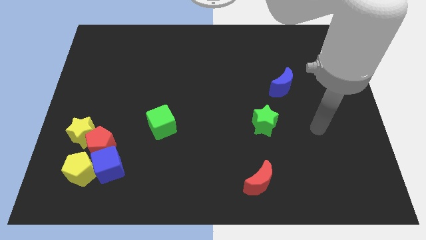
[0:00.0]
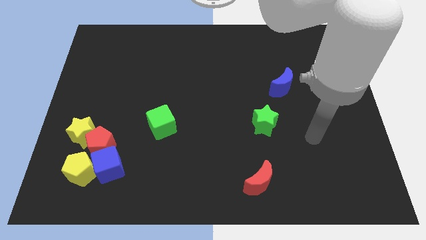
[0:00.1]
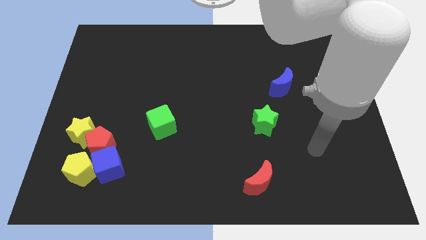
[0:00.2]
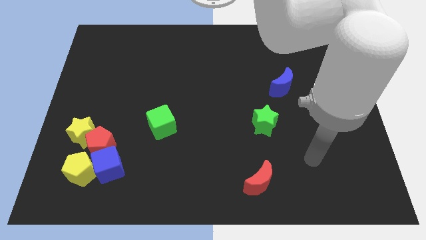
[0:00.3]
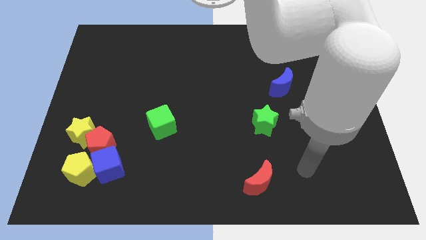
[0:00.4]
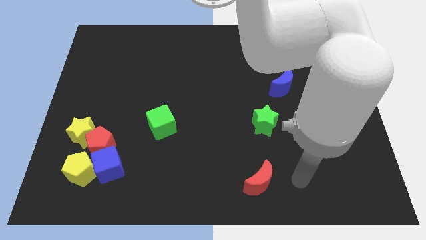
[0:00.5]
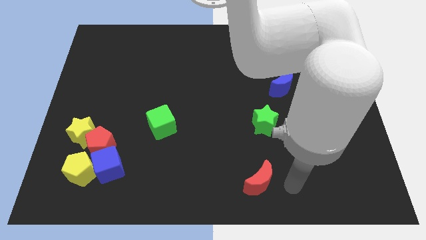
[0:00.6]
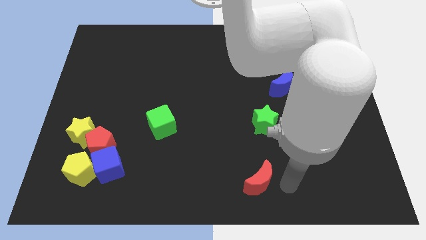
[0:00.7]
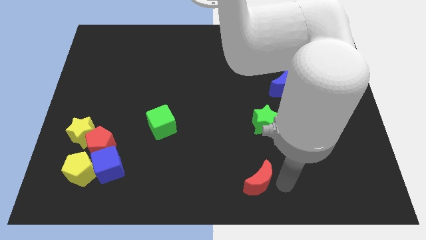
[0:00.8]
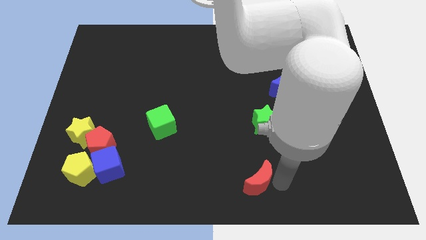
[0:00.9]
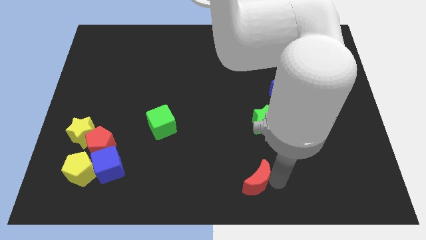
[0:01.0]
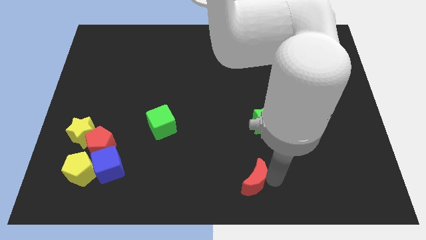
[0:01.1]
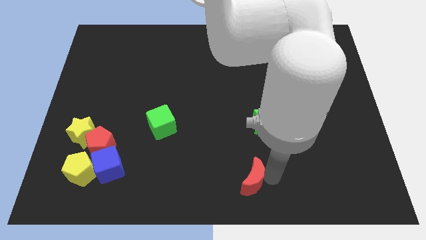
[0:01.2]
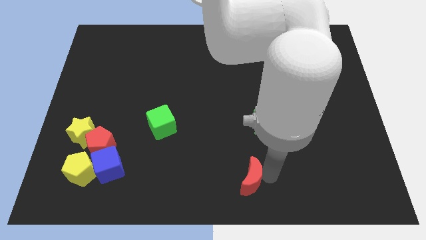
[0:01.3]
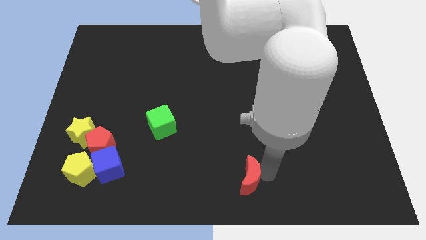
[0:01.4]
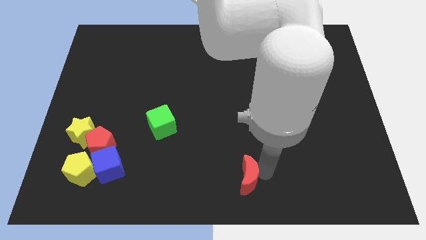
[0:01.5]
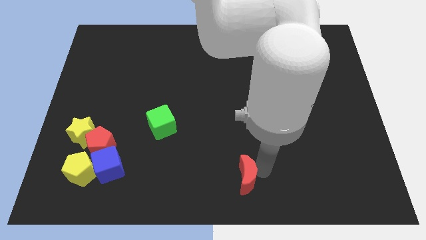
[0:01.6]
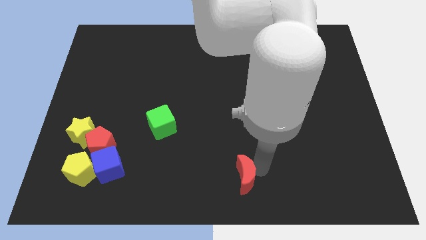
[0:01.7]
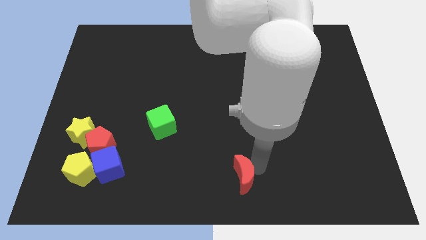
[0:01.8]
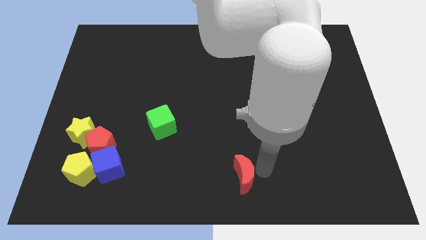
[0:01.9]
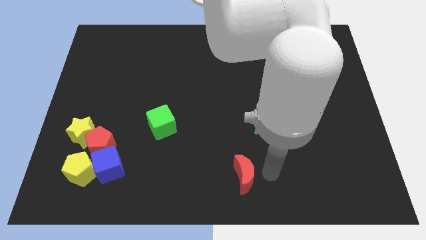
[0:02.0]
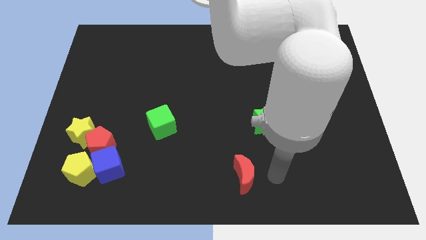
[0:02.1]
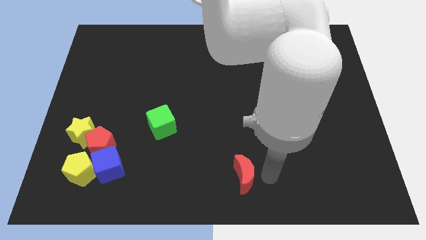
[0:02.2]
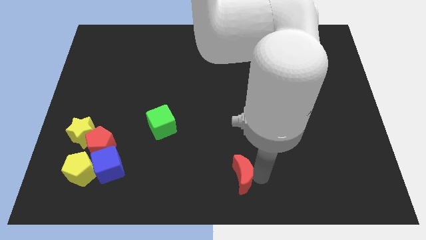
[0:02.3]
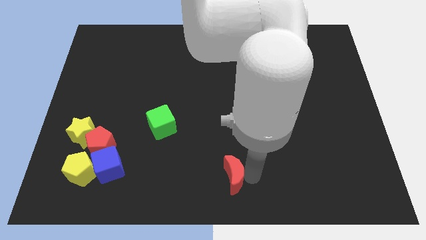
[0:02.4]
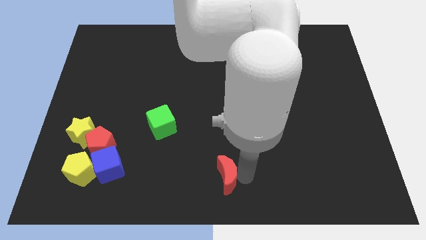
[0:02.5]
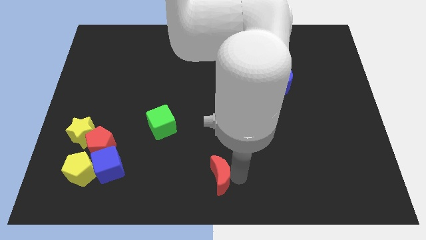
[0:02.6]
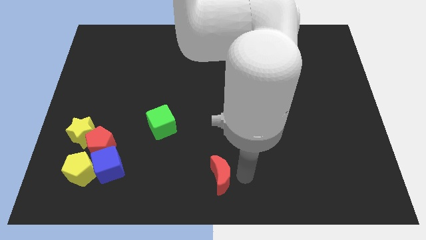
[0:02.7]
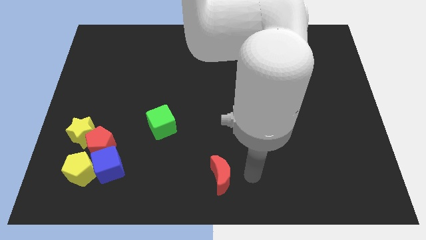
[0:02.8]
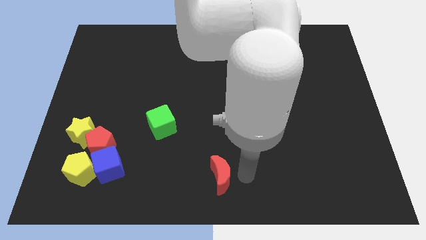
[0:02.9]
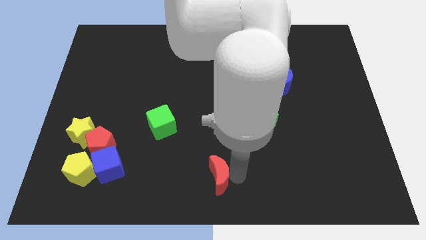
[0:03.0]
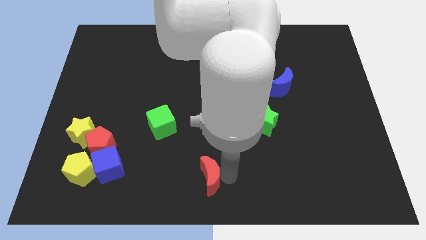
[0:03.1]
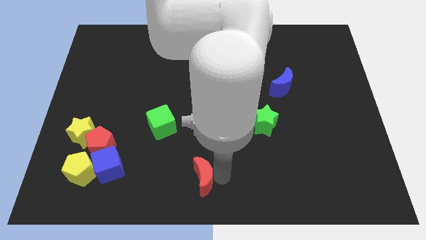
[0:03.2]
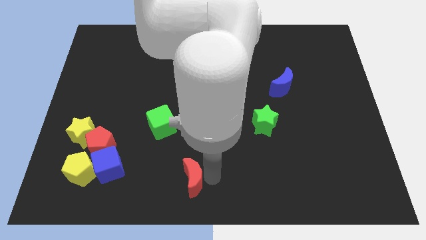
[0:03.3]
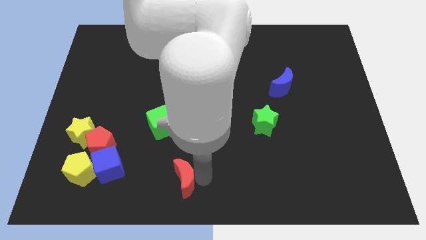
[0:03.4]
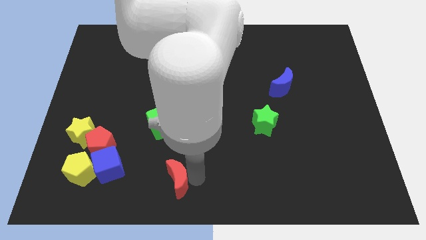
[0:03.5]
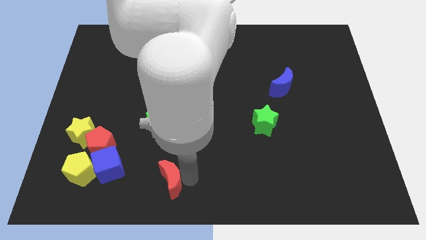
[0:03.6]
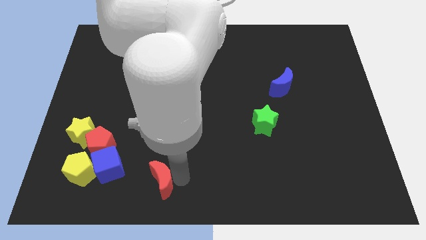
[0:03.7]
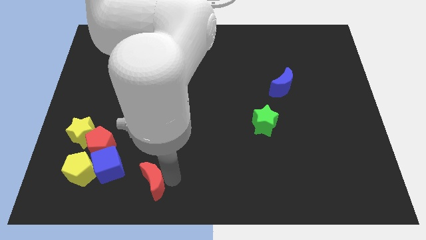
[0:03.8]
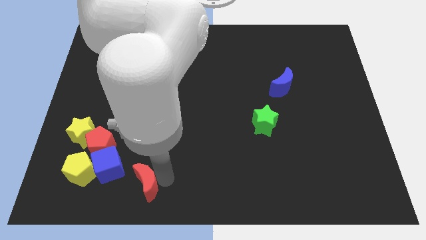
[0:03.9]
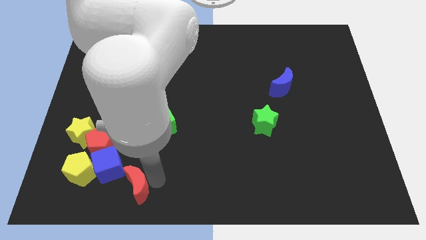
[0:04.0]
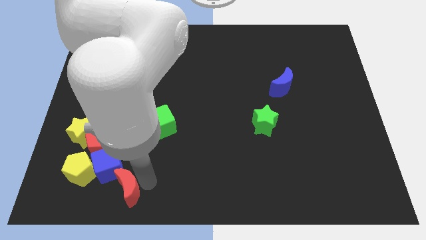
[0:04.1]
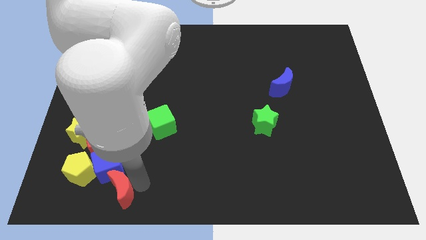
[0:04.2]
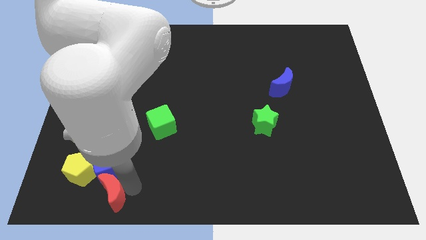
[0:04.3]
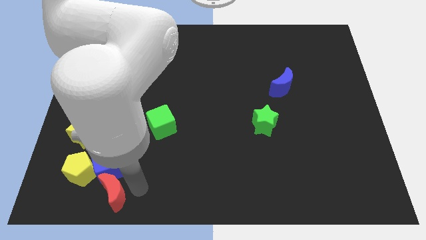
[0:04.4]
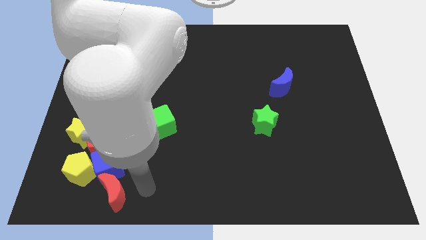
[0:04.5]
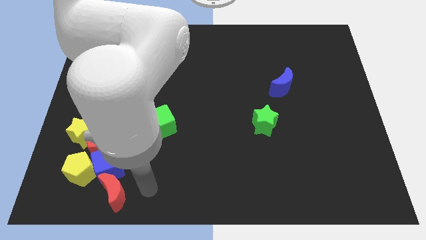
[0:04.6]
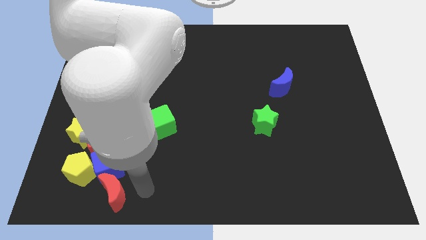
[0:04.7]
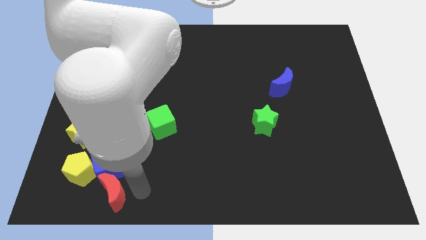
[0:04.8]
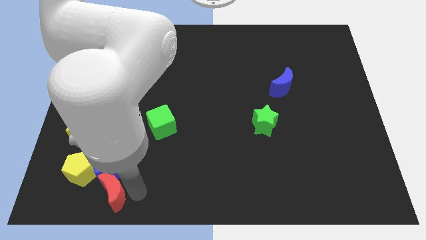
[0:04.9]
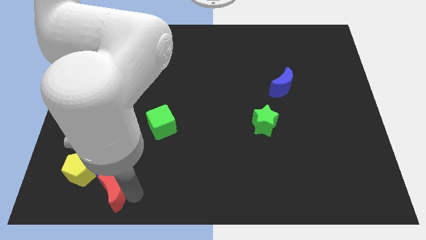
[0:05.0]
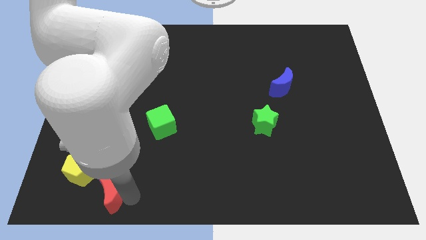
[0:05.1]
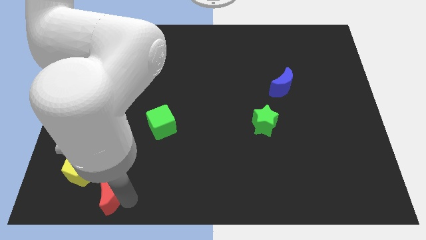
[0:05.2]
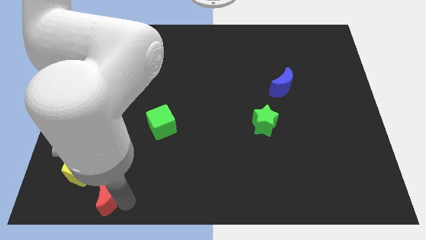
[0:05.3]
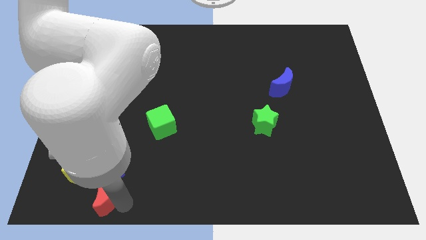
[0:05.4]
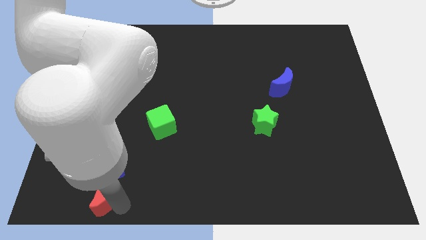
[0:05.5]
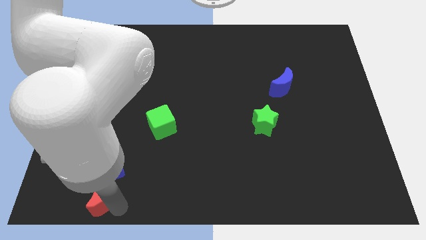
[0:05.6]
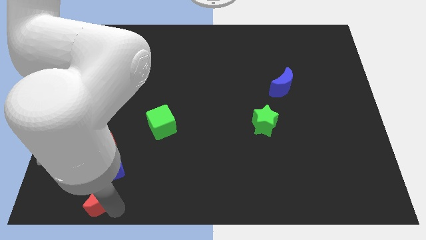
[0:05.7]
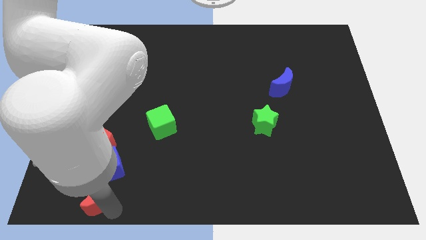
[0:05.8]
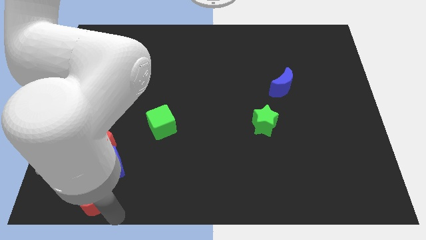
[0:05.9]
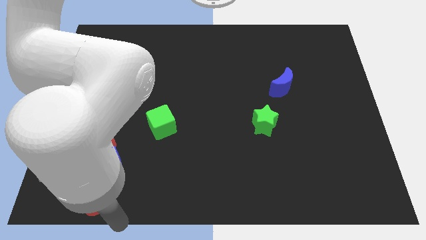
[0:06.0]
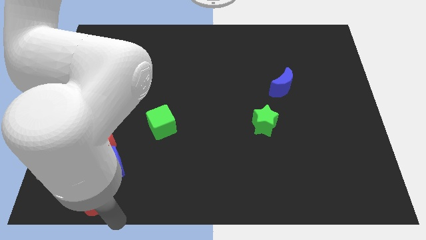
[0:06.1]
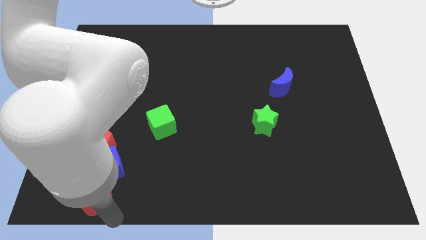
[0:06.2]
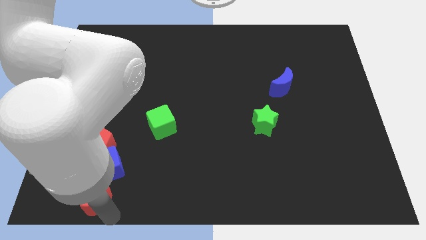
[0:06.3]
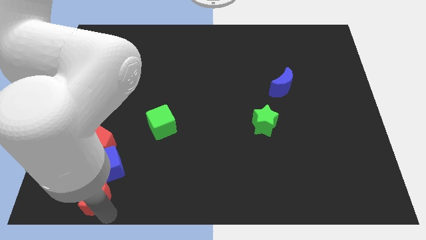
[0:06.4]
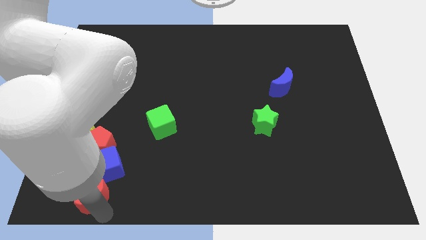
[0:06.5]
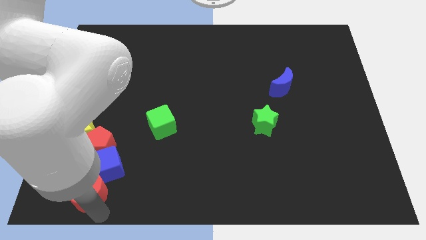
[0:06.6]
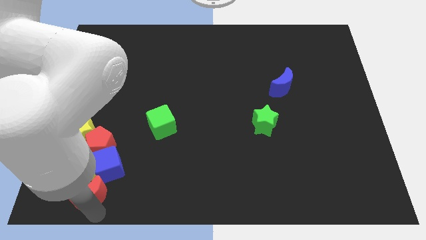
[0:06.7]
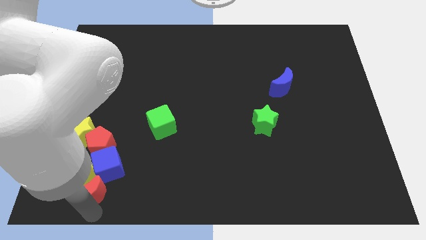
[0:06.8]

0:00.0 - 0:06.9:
push the red moon close to the yellow pentagon

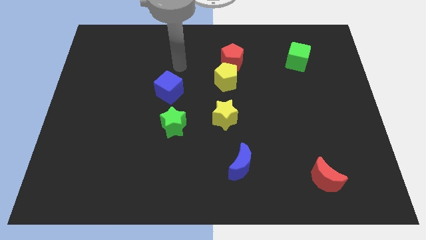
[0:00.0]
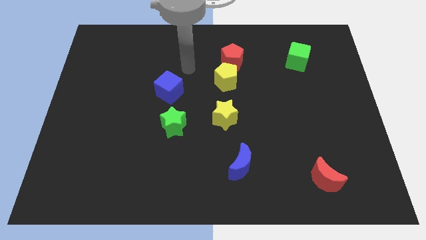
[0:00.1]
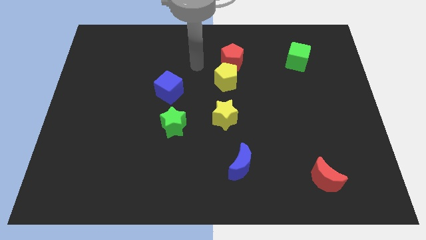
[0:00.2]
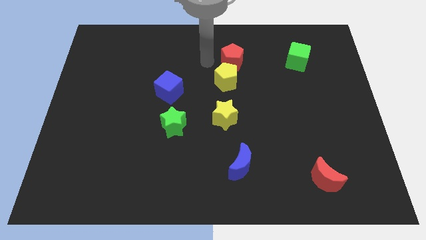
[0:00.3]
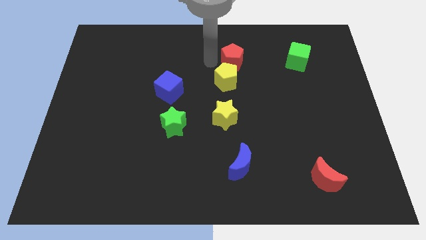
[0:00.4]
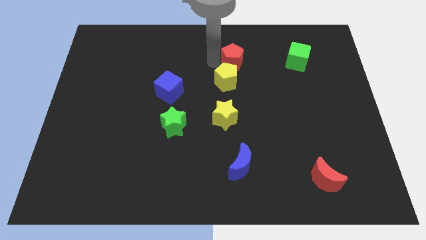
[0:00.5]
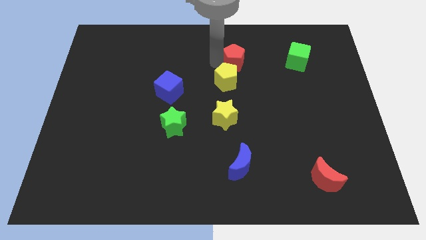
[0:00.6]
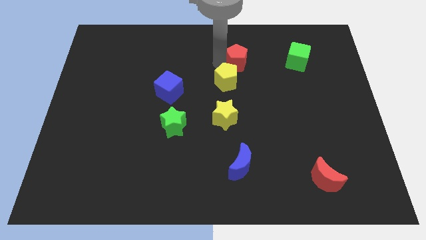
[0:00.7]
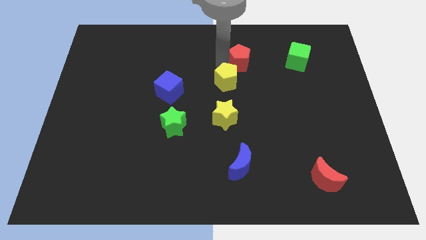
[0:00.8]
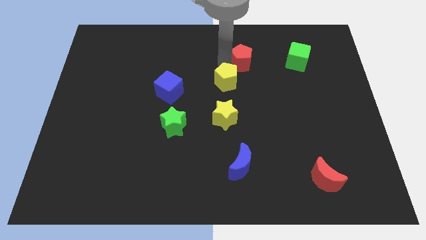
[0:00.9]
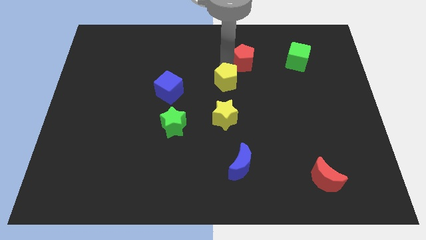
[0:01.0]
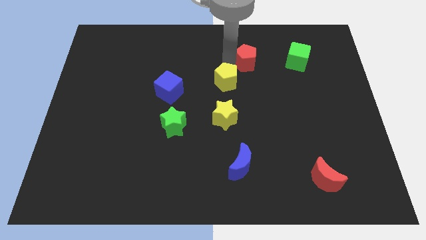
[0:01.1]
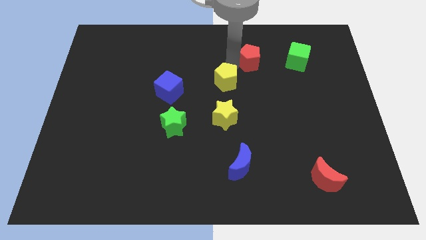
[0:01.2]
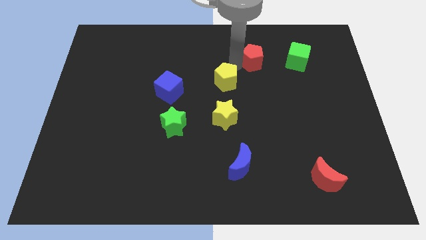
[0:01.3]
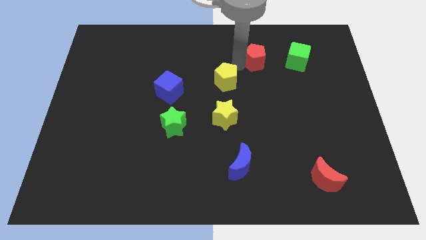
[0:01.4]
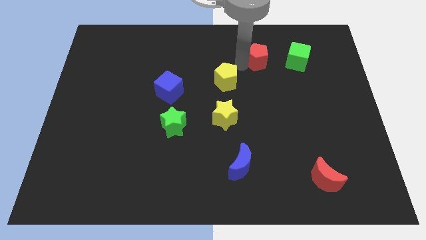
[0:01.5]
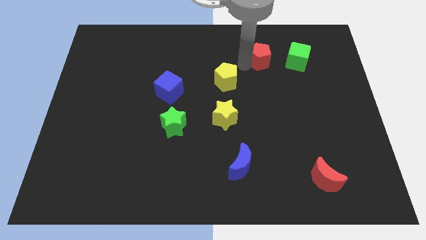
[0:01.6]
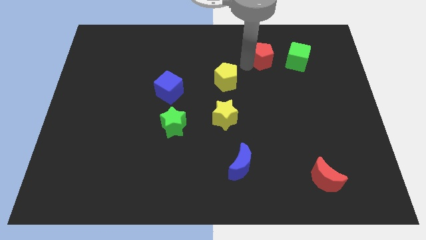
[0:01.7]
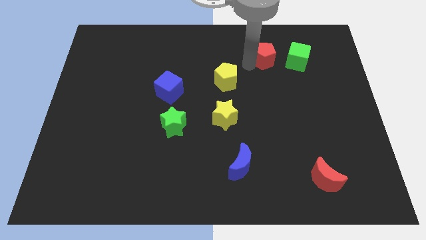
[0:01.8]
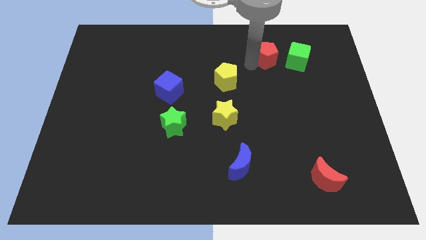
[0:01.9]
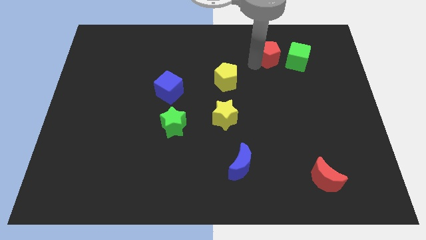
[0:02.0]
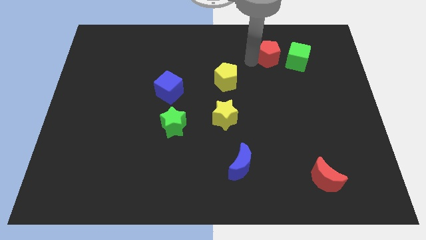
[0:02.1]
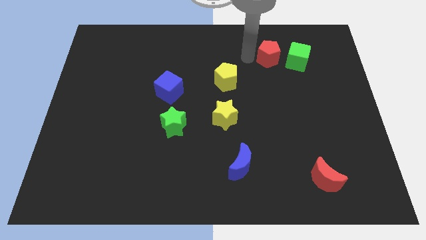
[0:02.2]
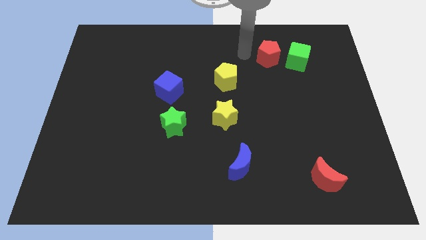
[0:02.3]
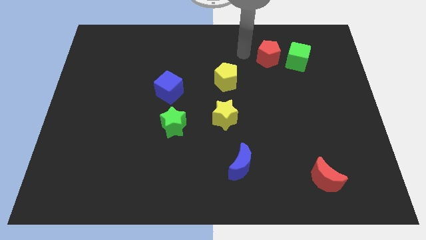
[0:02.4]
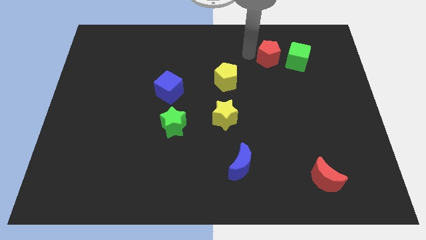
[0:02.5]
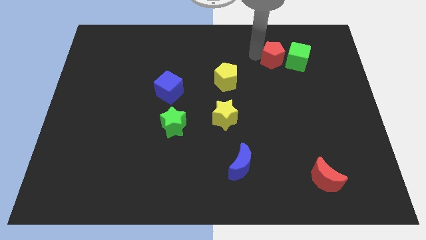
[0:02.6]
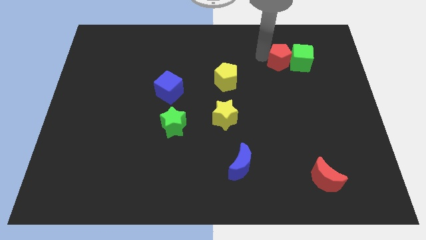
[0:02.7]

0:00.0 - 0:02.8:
move the red pentagon next to the green cube
